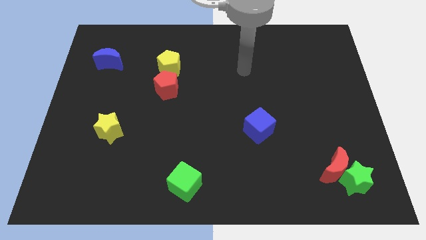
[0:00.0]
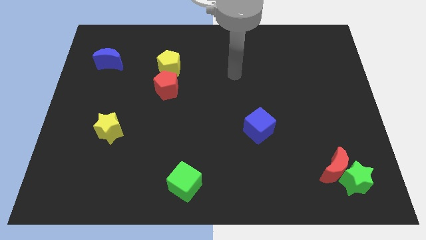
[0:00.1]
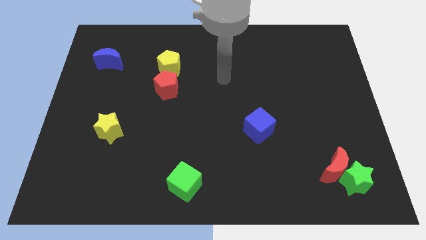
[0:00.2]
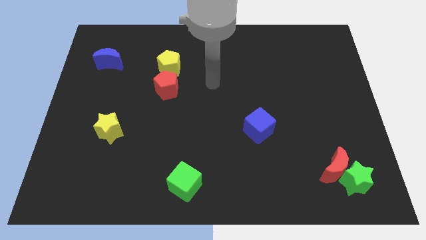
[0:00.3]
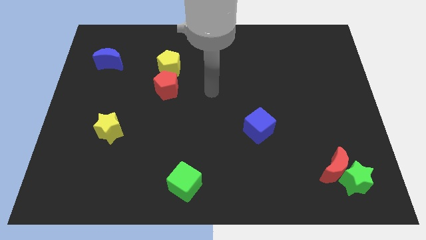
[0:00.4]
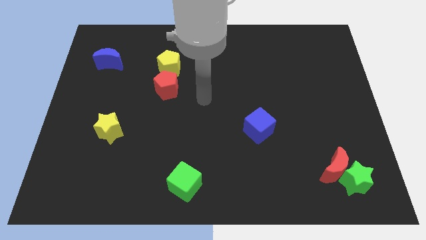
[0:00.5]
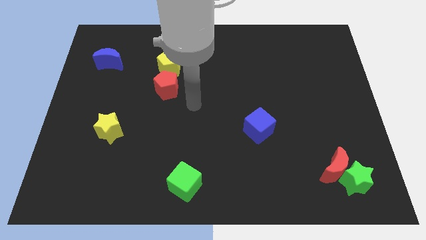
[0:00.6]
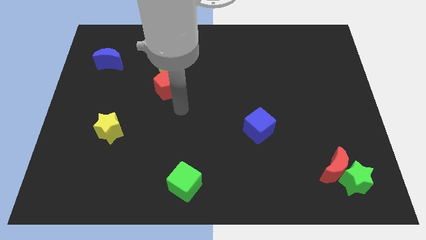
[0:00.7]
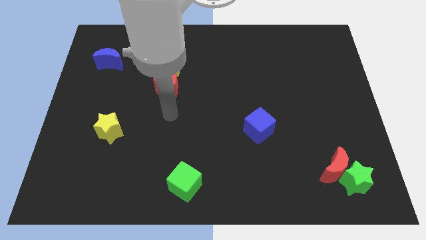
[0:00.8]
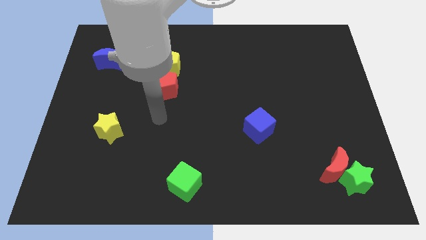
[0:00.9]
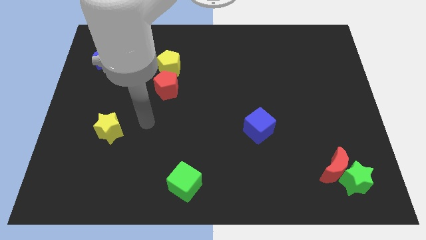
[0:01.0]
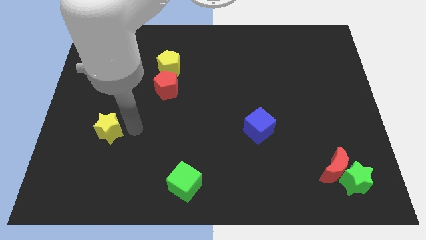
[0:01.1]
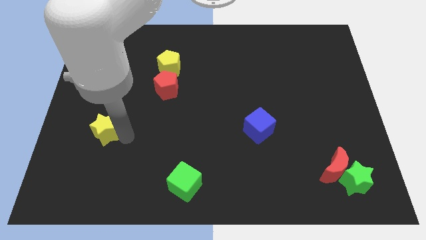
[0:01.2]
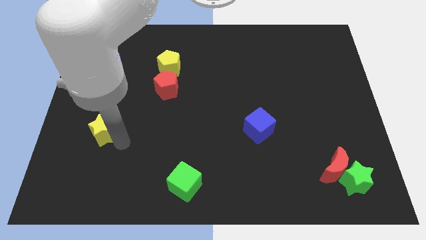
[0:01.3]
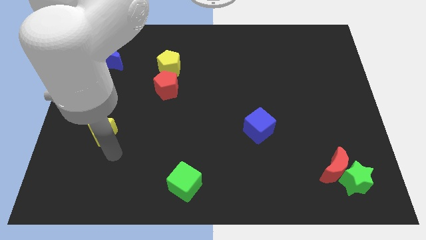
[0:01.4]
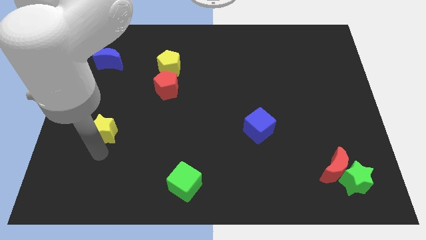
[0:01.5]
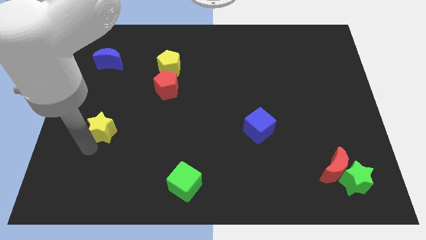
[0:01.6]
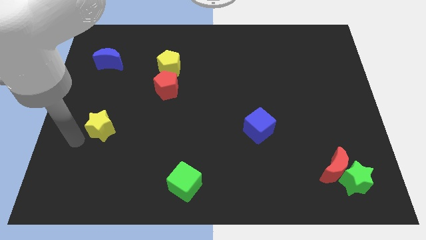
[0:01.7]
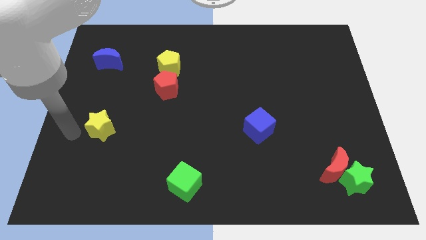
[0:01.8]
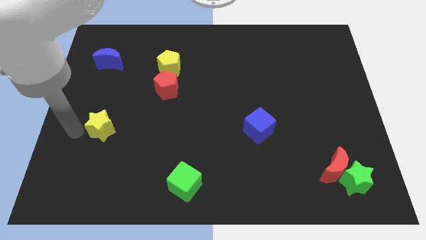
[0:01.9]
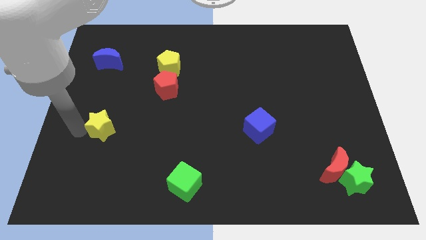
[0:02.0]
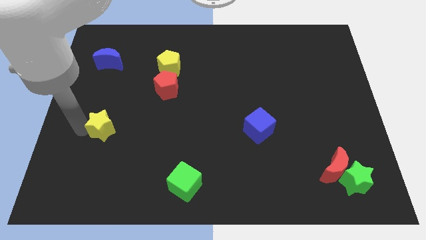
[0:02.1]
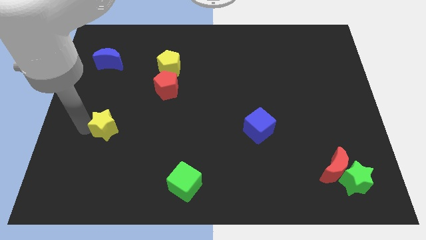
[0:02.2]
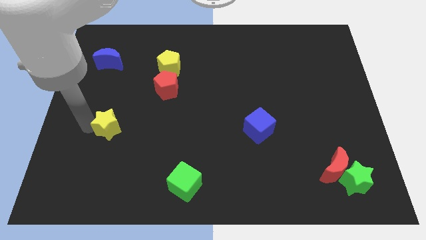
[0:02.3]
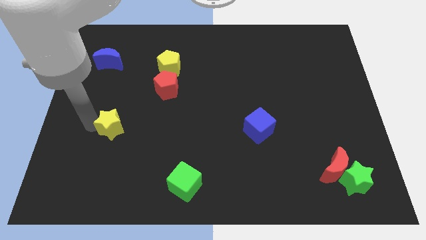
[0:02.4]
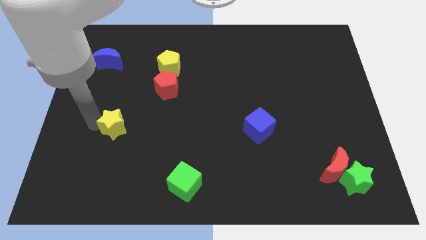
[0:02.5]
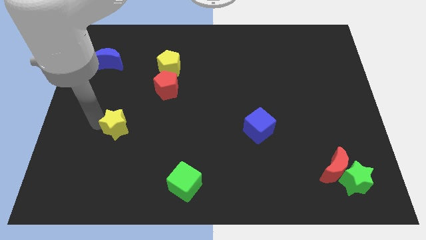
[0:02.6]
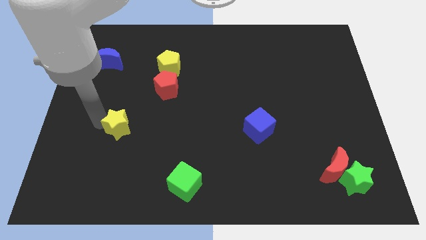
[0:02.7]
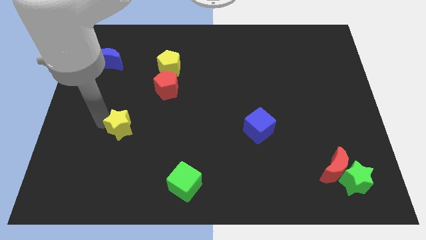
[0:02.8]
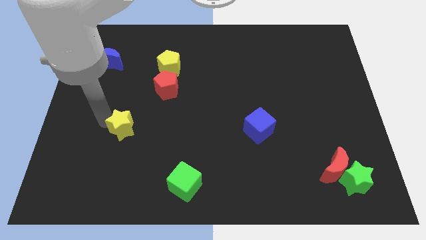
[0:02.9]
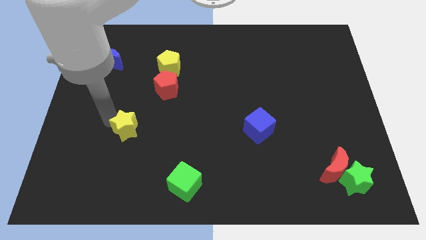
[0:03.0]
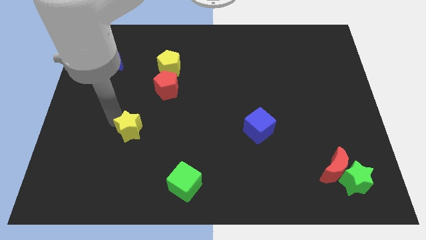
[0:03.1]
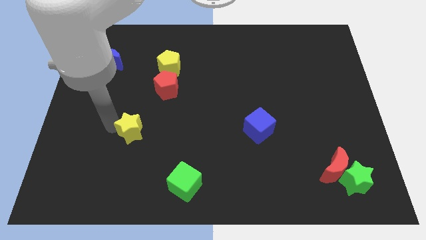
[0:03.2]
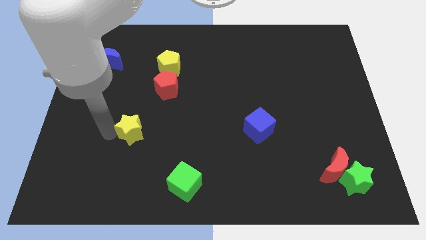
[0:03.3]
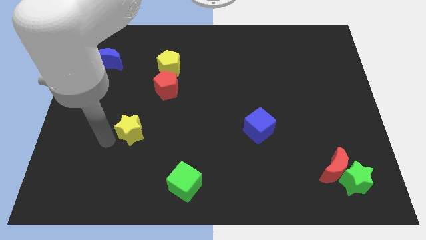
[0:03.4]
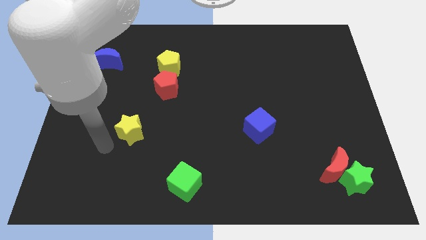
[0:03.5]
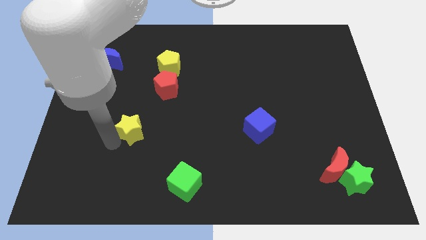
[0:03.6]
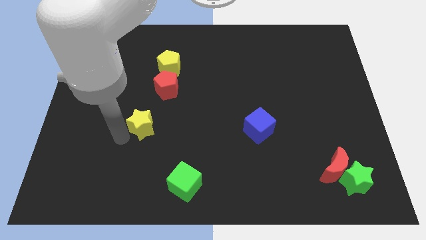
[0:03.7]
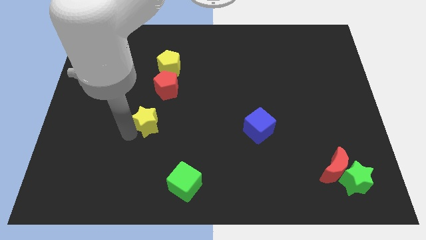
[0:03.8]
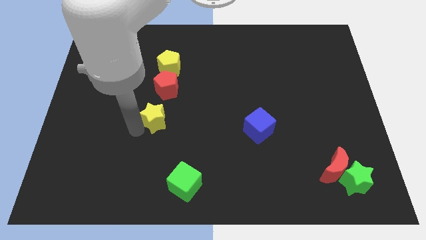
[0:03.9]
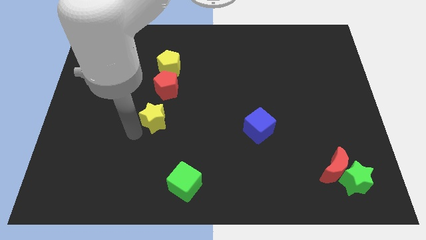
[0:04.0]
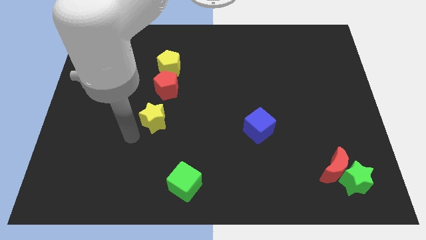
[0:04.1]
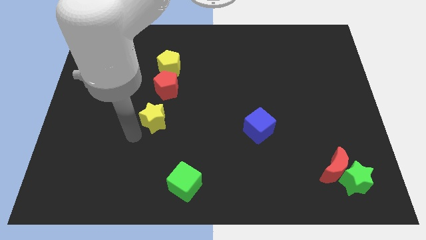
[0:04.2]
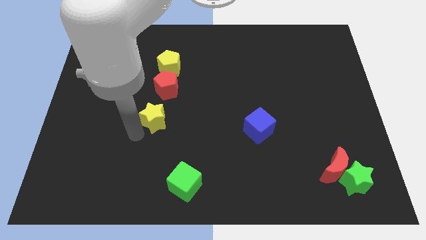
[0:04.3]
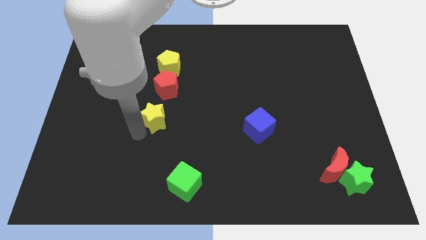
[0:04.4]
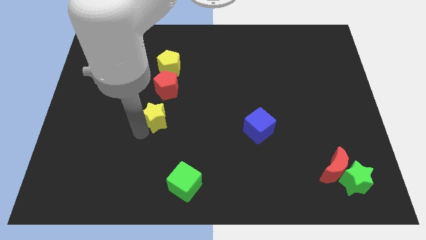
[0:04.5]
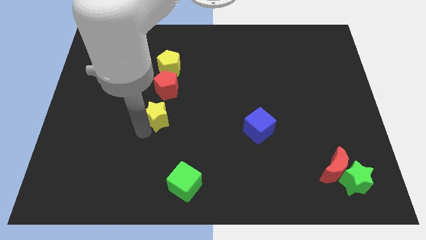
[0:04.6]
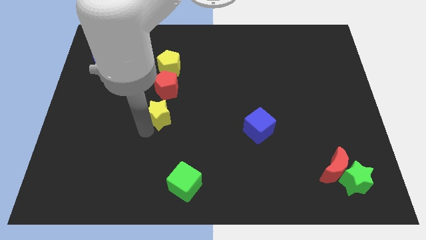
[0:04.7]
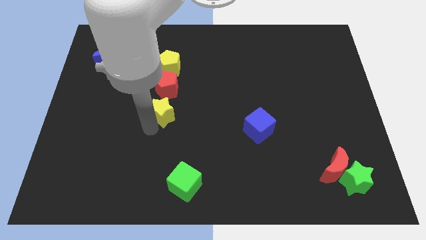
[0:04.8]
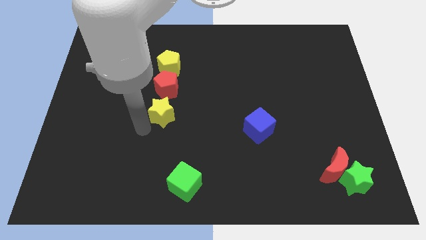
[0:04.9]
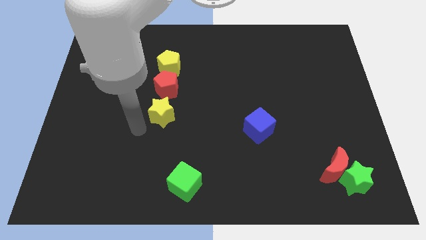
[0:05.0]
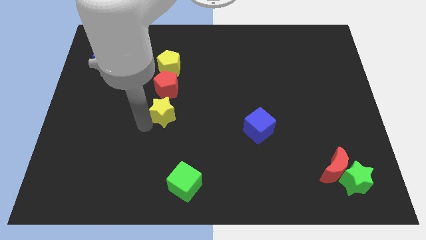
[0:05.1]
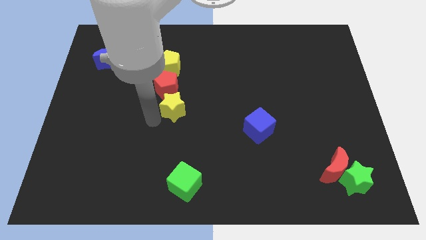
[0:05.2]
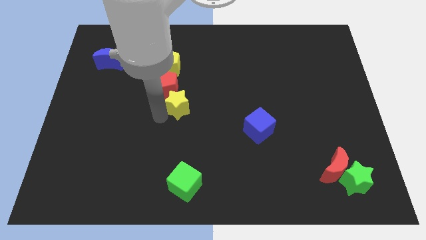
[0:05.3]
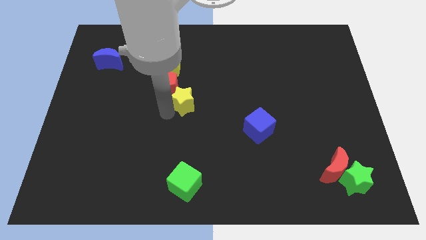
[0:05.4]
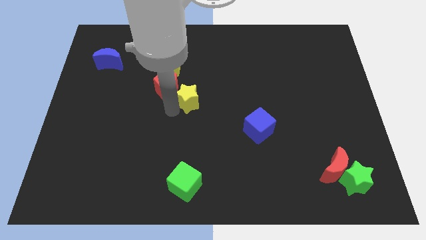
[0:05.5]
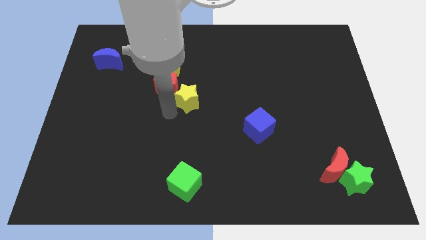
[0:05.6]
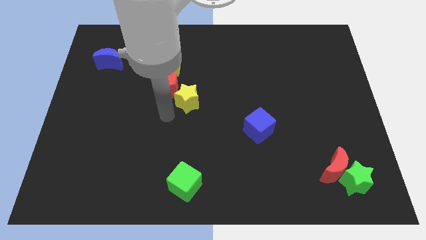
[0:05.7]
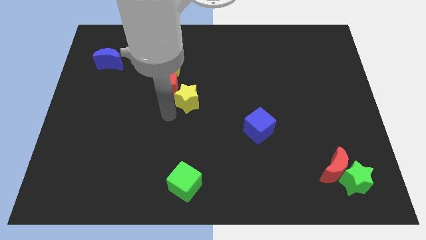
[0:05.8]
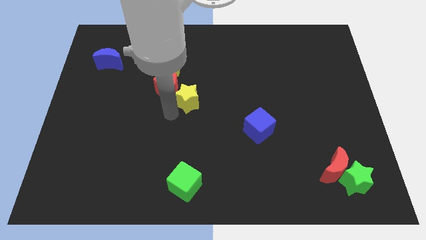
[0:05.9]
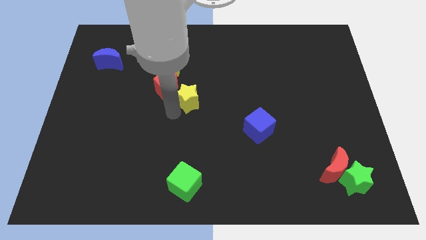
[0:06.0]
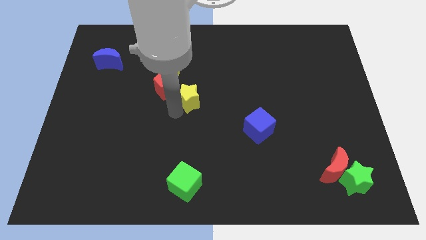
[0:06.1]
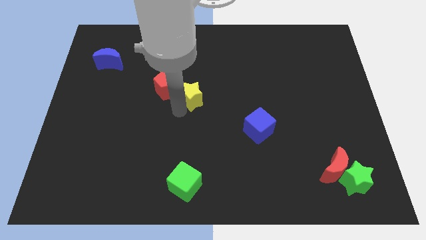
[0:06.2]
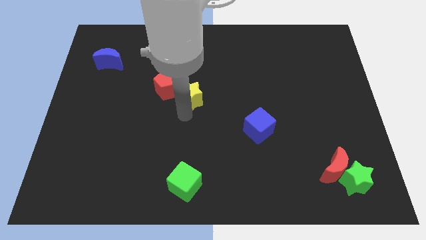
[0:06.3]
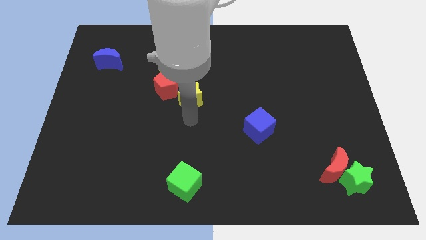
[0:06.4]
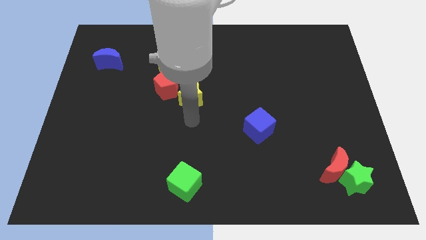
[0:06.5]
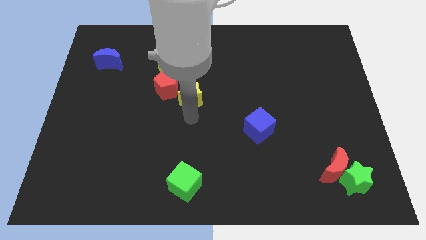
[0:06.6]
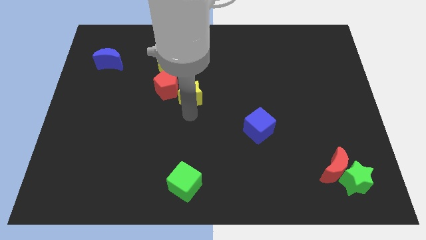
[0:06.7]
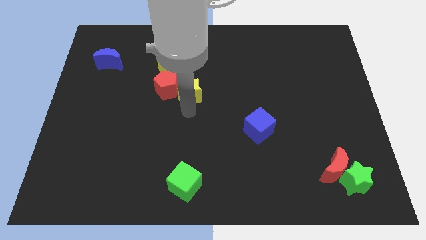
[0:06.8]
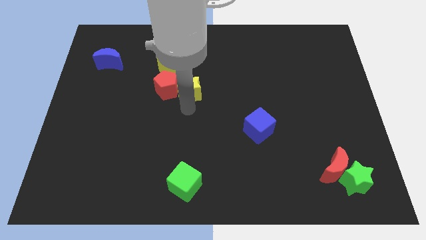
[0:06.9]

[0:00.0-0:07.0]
push the yellow star to the top right of the red pentagon
